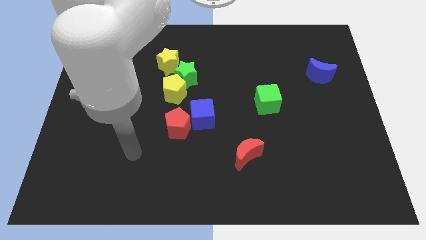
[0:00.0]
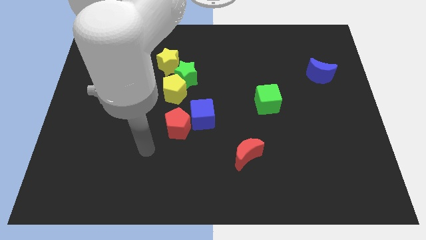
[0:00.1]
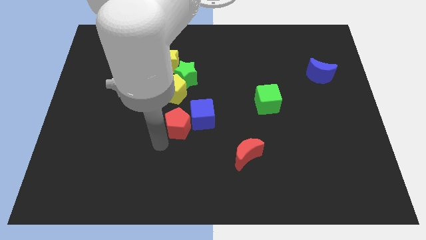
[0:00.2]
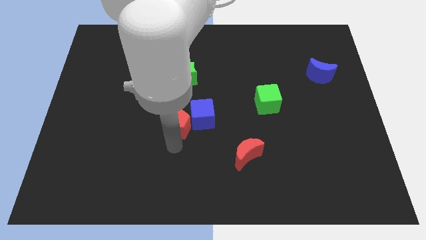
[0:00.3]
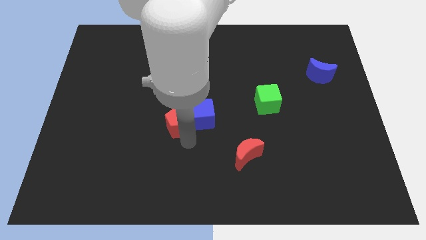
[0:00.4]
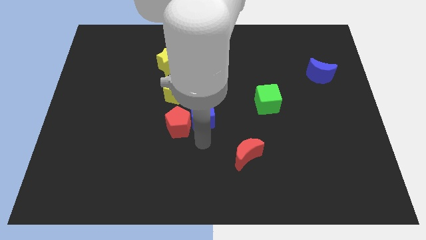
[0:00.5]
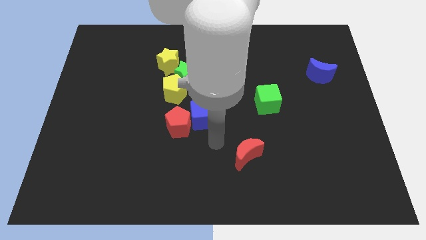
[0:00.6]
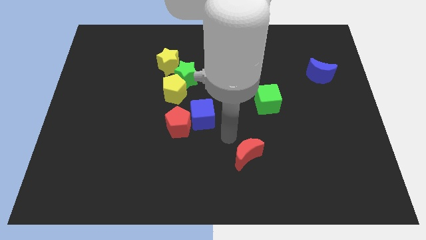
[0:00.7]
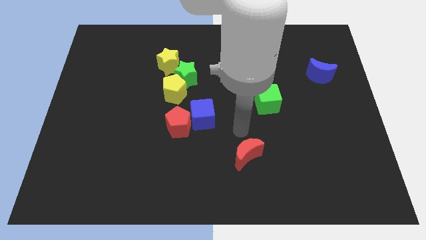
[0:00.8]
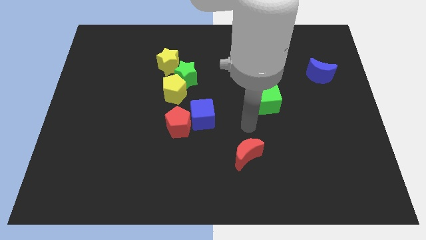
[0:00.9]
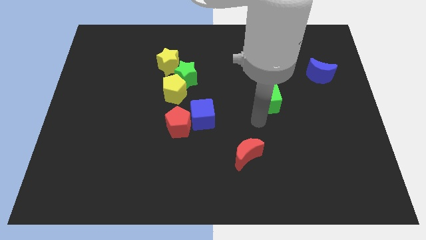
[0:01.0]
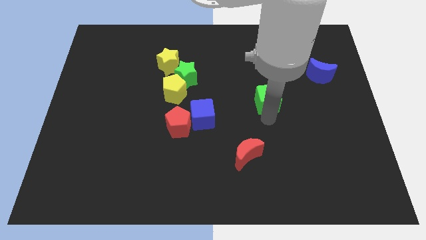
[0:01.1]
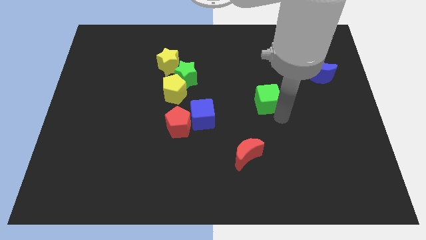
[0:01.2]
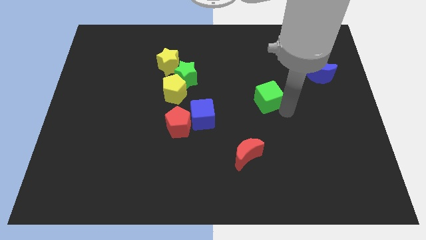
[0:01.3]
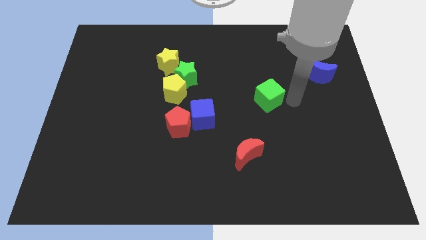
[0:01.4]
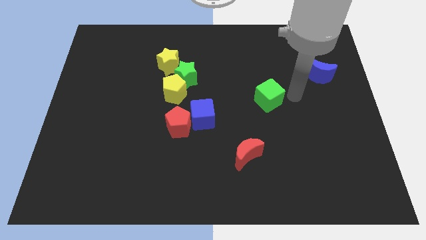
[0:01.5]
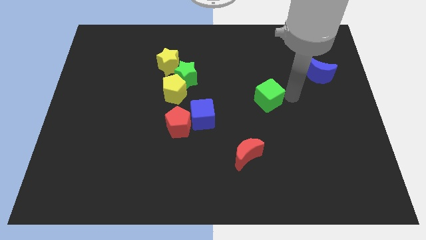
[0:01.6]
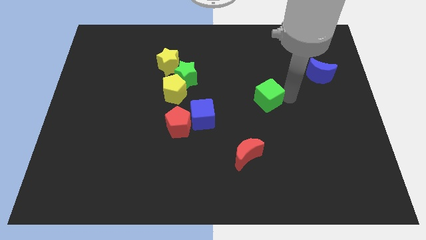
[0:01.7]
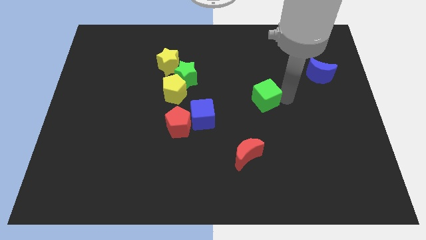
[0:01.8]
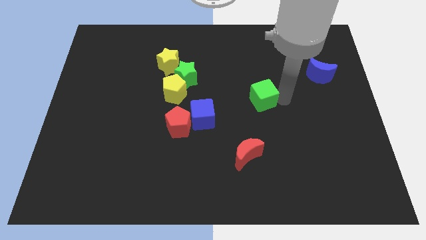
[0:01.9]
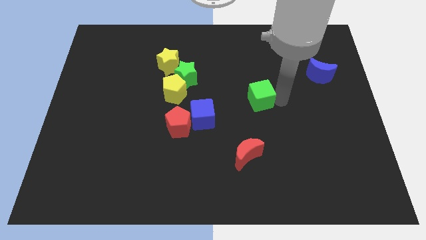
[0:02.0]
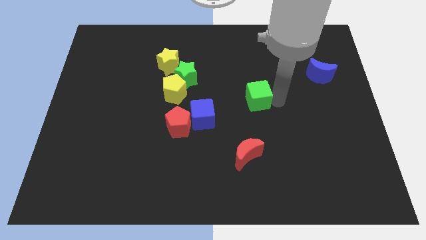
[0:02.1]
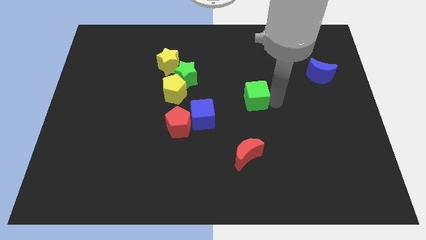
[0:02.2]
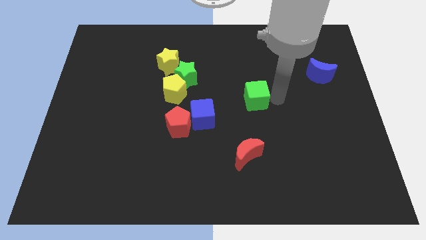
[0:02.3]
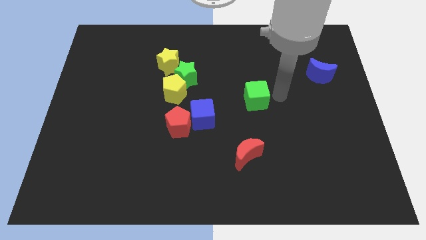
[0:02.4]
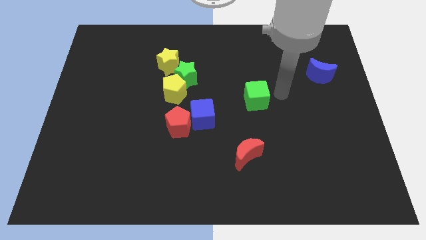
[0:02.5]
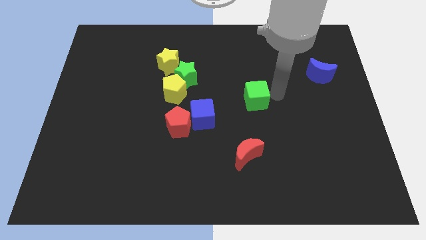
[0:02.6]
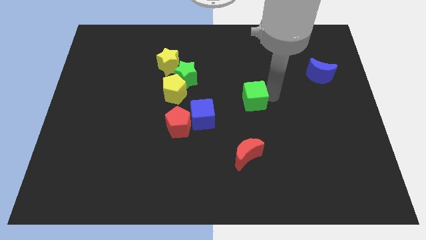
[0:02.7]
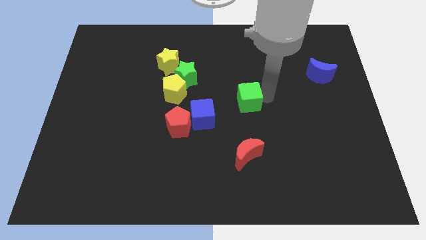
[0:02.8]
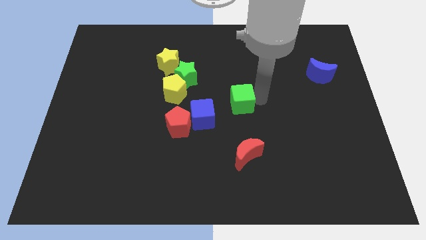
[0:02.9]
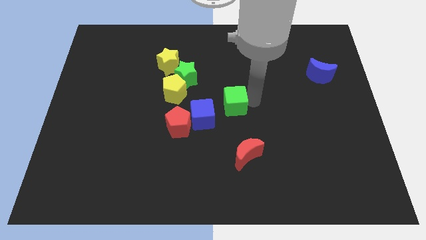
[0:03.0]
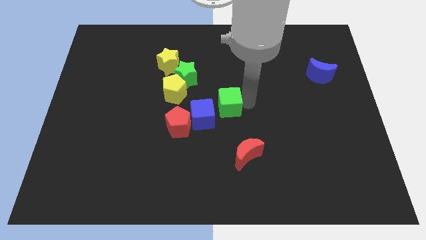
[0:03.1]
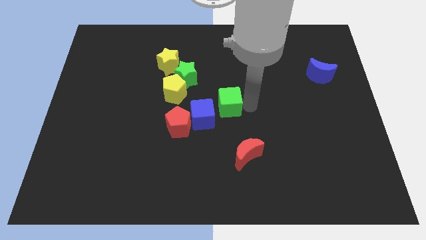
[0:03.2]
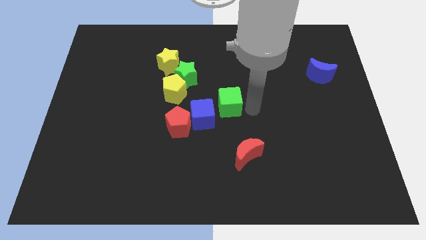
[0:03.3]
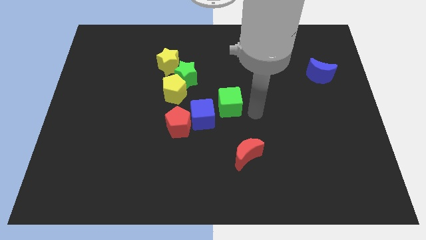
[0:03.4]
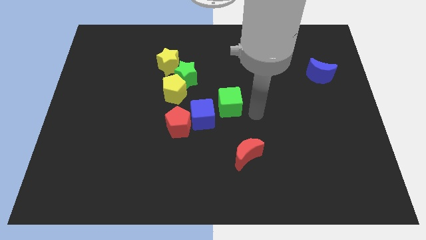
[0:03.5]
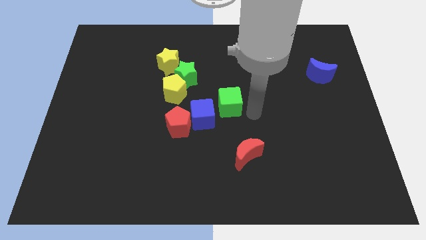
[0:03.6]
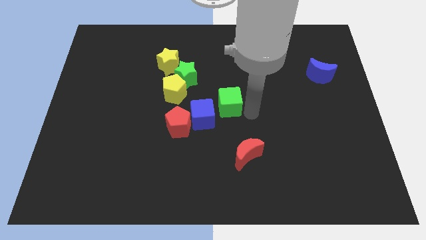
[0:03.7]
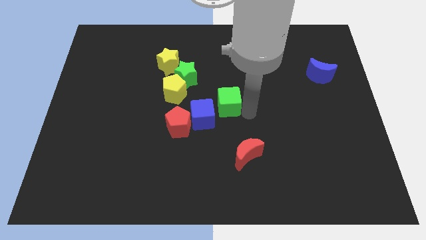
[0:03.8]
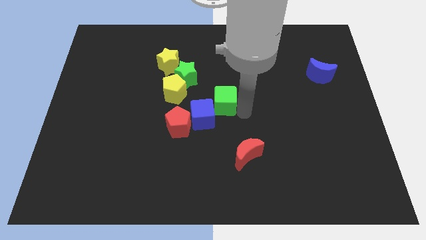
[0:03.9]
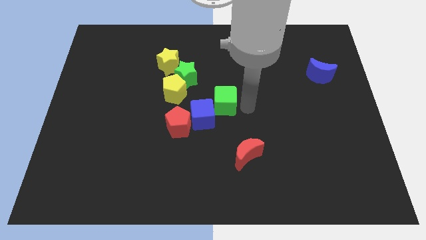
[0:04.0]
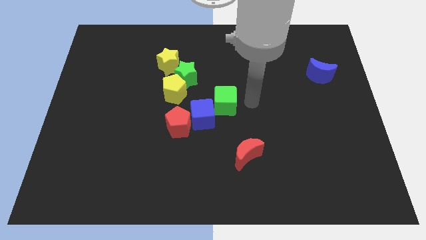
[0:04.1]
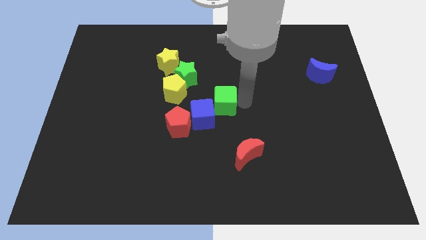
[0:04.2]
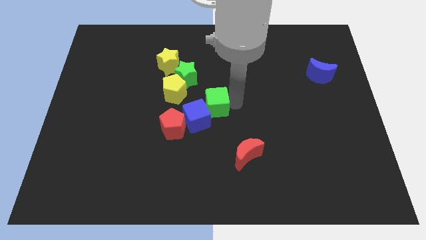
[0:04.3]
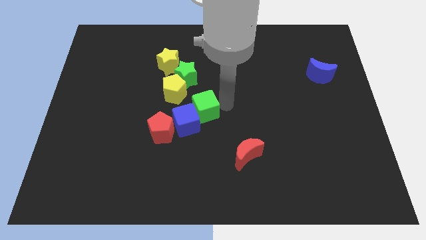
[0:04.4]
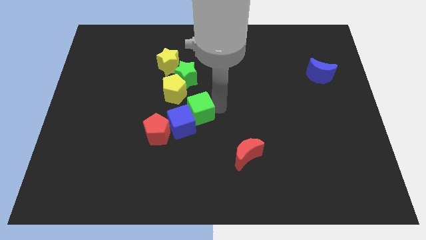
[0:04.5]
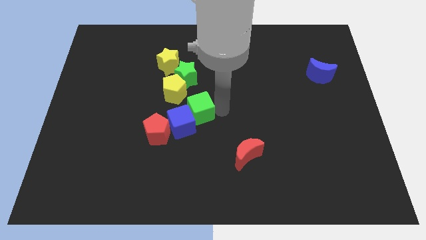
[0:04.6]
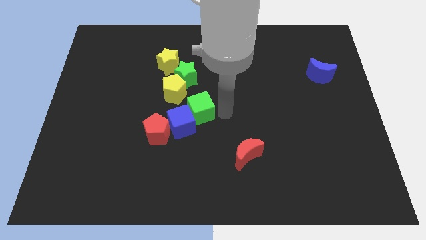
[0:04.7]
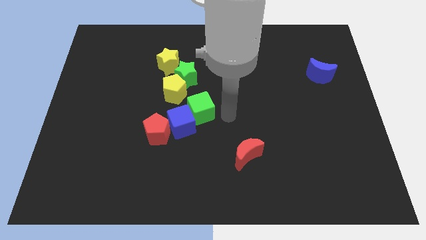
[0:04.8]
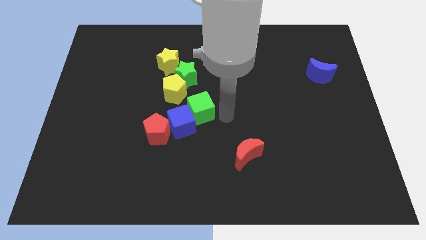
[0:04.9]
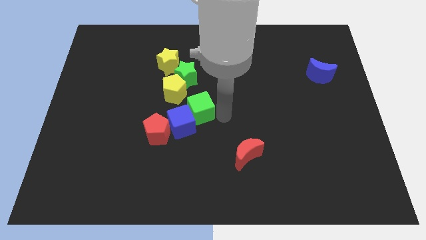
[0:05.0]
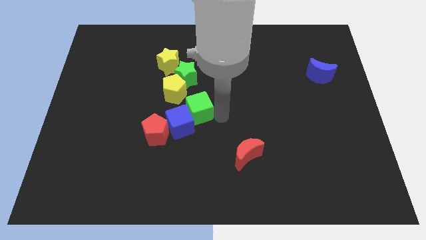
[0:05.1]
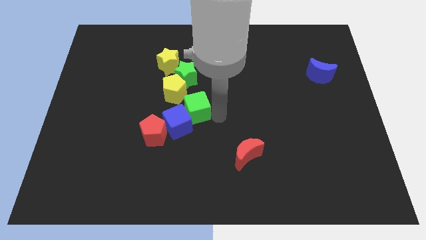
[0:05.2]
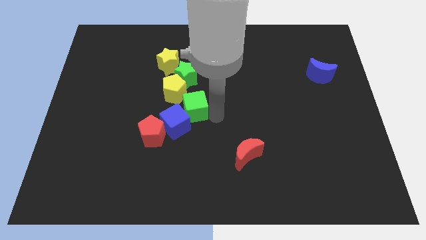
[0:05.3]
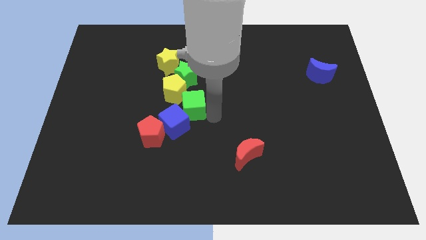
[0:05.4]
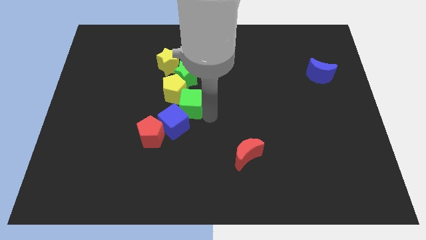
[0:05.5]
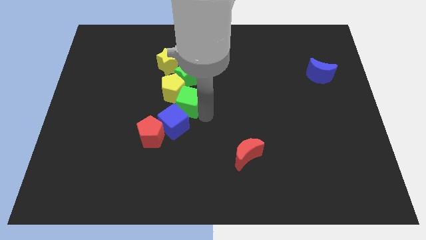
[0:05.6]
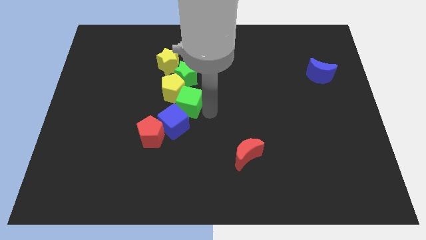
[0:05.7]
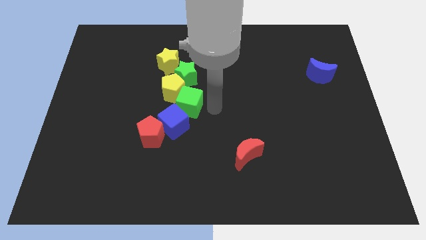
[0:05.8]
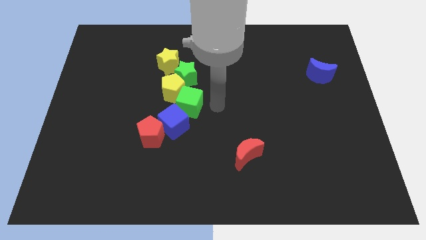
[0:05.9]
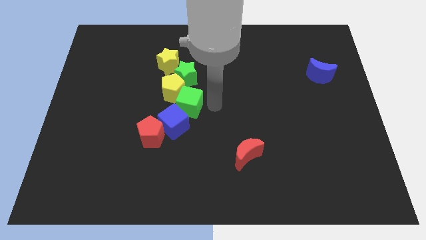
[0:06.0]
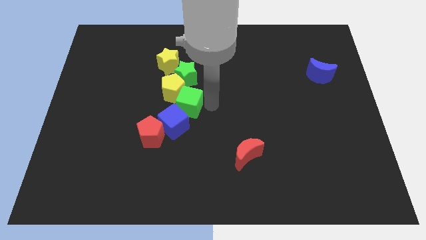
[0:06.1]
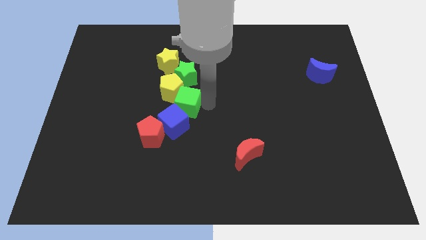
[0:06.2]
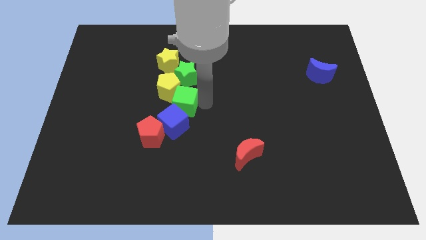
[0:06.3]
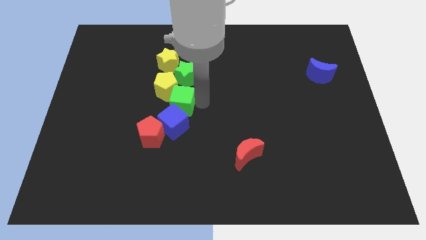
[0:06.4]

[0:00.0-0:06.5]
push the green cube left

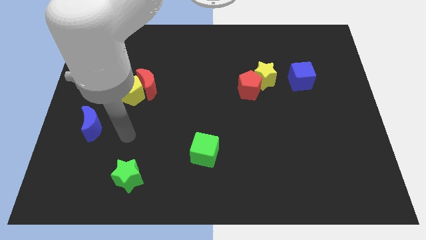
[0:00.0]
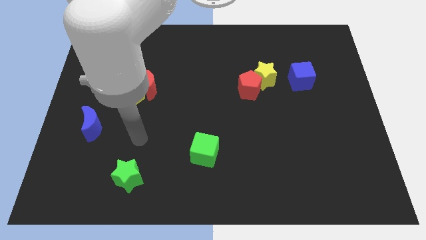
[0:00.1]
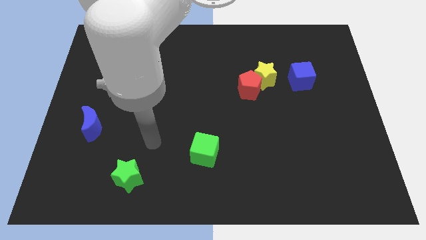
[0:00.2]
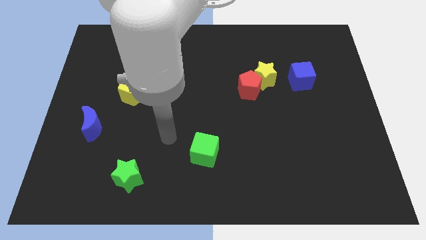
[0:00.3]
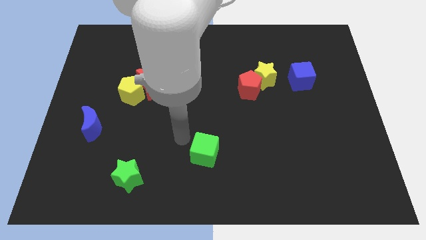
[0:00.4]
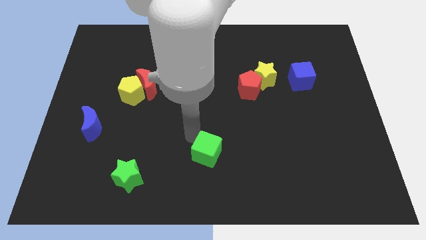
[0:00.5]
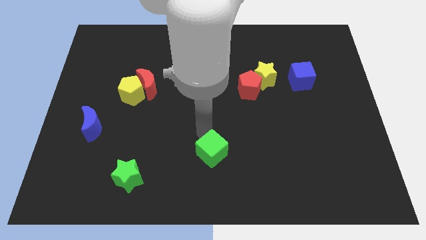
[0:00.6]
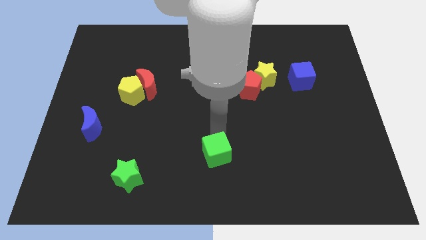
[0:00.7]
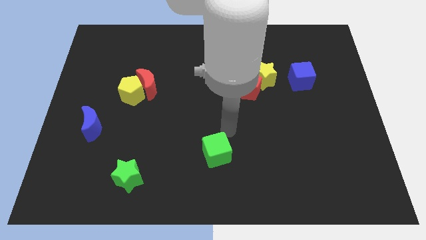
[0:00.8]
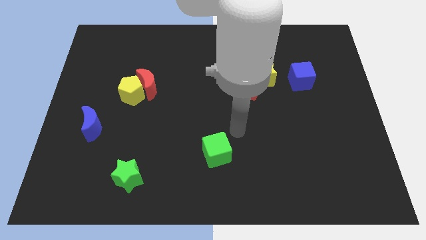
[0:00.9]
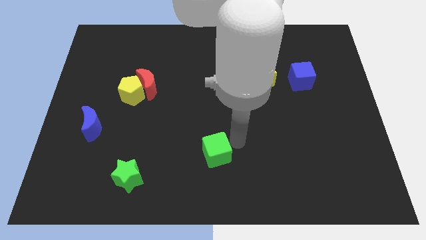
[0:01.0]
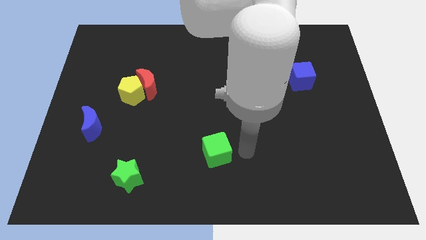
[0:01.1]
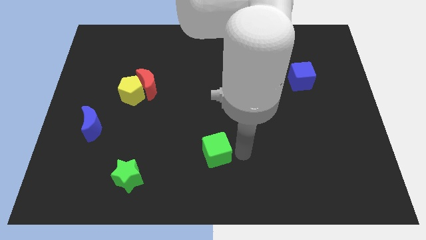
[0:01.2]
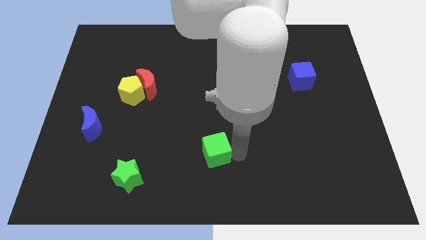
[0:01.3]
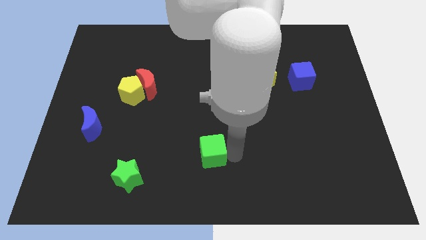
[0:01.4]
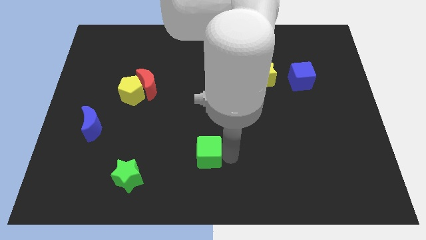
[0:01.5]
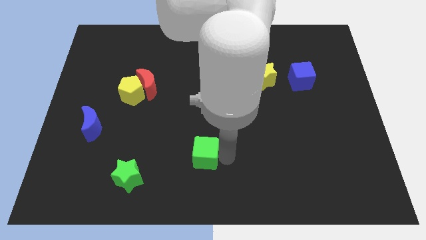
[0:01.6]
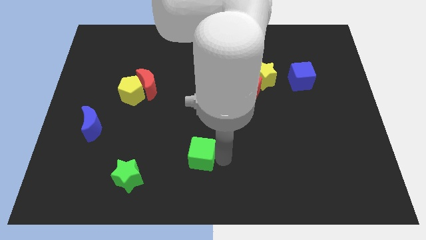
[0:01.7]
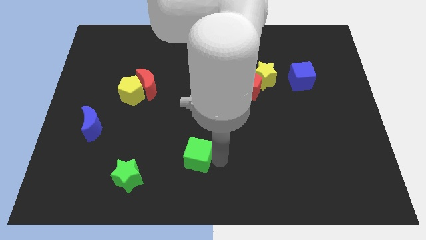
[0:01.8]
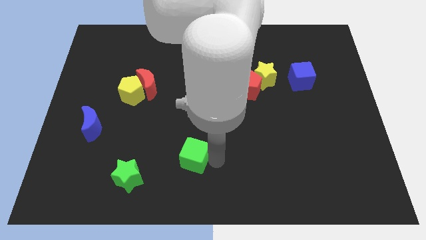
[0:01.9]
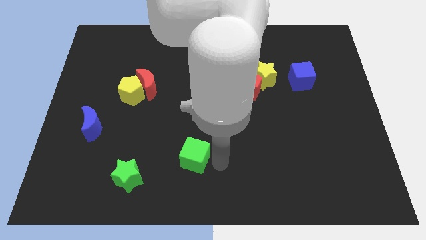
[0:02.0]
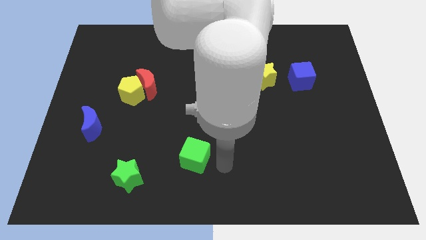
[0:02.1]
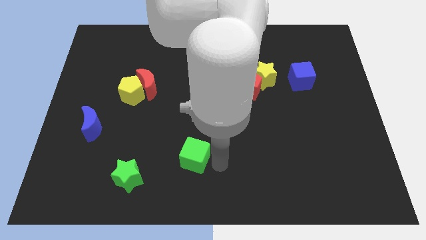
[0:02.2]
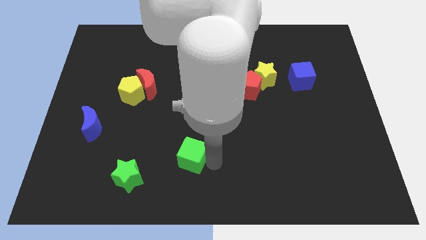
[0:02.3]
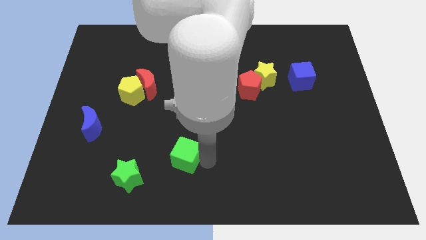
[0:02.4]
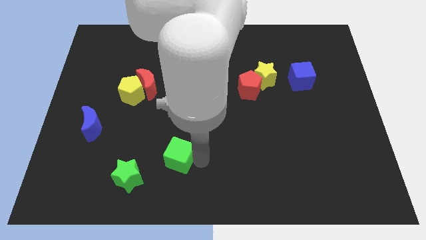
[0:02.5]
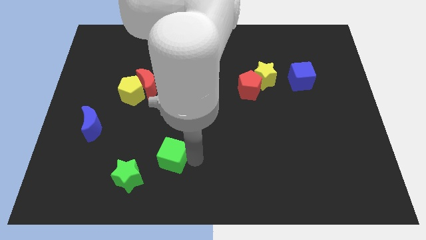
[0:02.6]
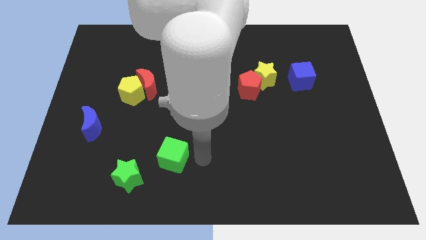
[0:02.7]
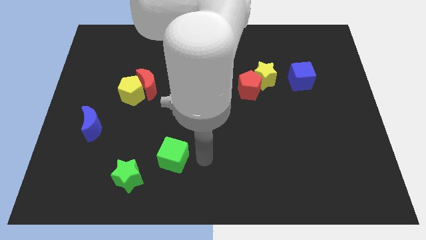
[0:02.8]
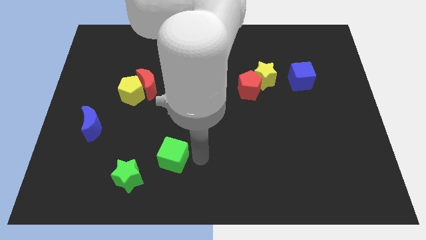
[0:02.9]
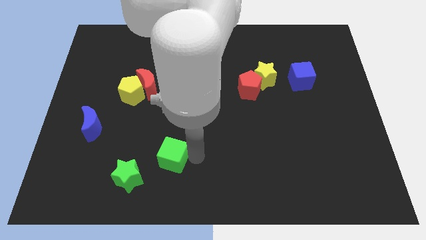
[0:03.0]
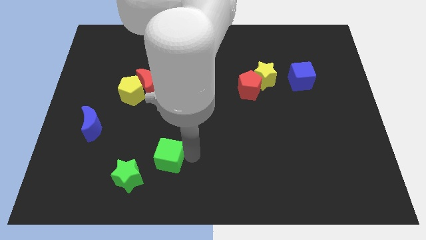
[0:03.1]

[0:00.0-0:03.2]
move the green cube a little left
